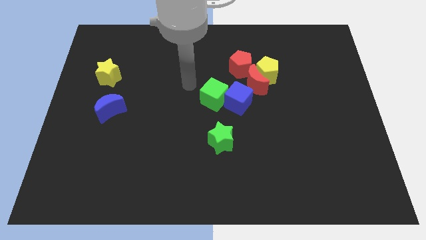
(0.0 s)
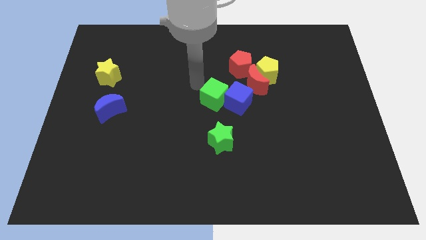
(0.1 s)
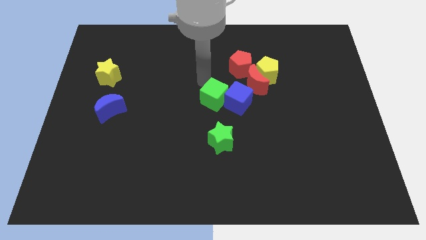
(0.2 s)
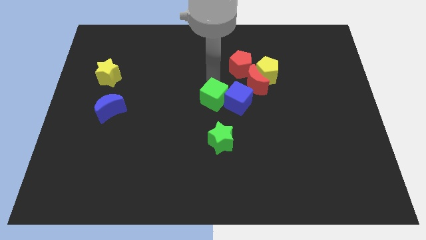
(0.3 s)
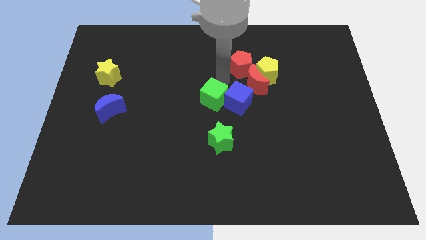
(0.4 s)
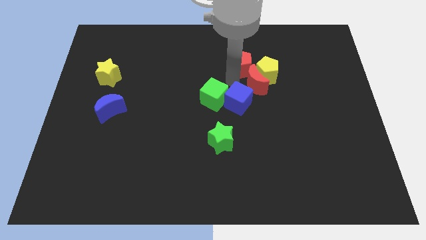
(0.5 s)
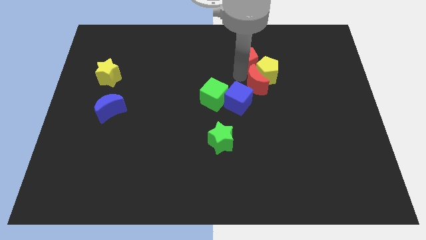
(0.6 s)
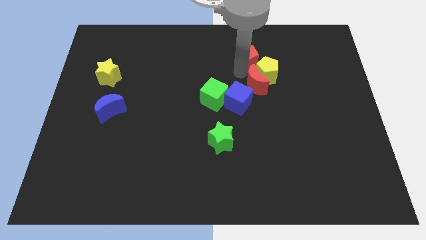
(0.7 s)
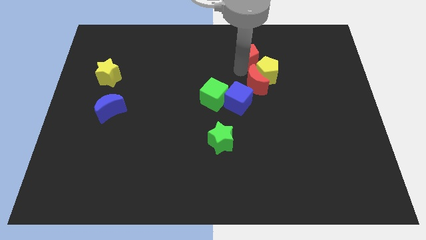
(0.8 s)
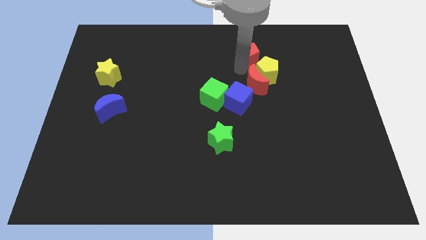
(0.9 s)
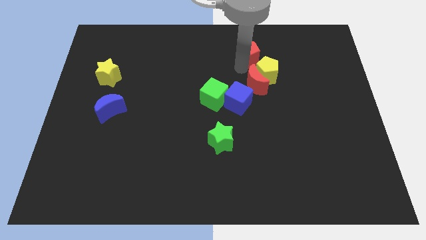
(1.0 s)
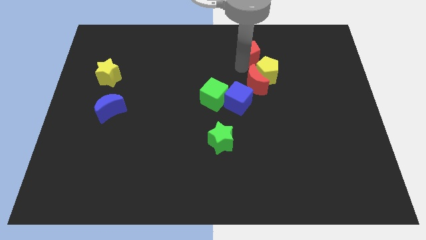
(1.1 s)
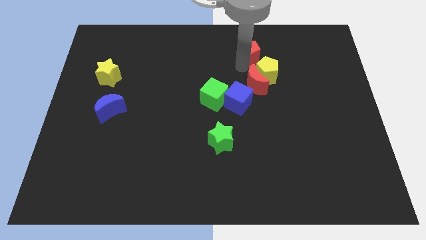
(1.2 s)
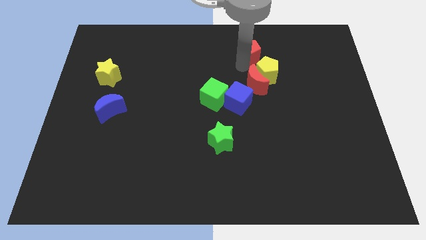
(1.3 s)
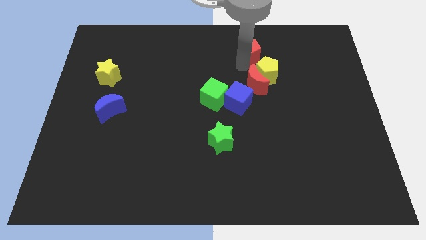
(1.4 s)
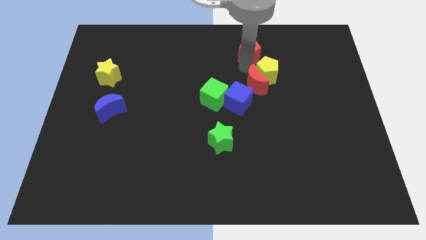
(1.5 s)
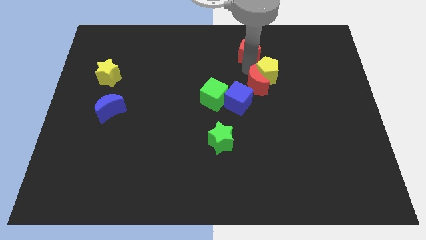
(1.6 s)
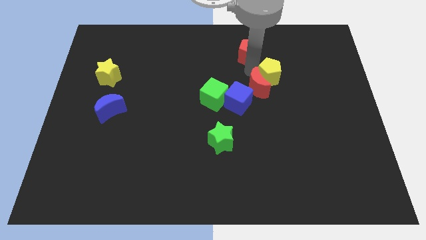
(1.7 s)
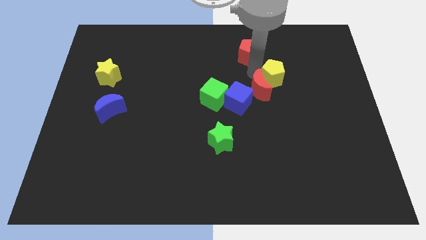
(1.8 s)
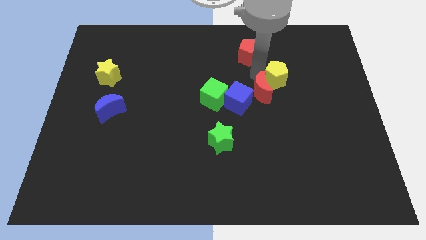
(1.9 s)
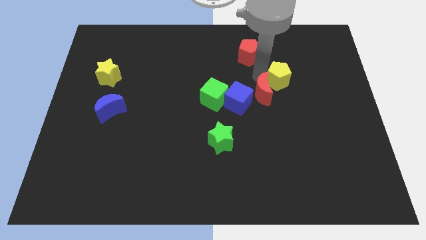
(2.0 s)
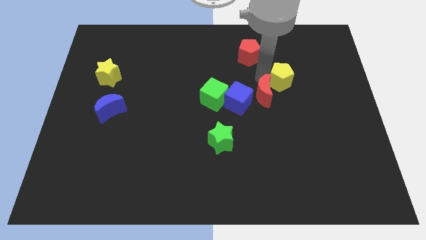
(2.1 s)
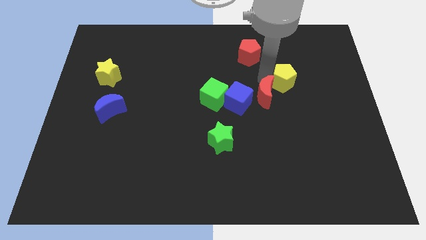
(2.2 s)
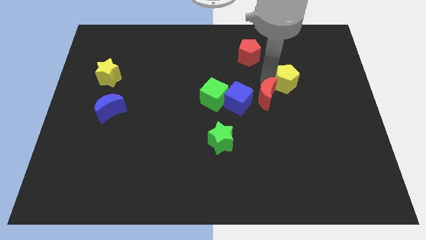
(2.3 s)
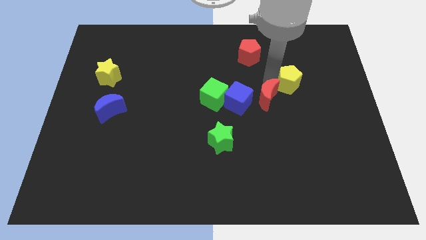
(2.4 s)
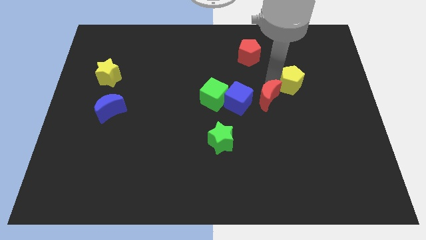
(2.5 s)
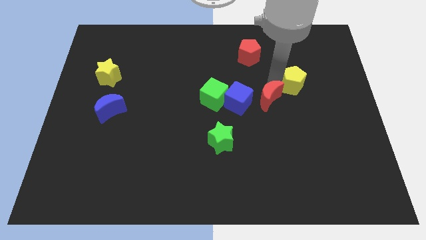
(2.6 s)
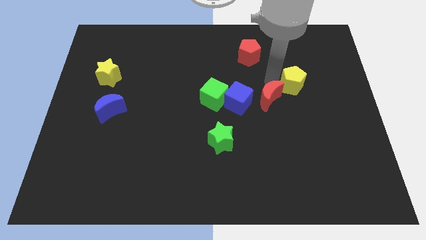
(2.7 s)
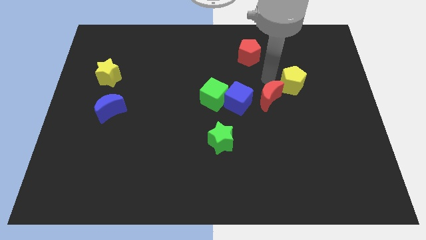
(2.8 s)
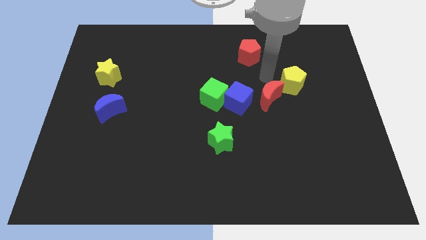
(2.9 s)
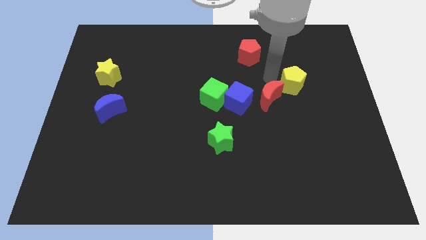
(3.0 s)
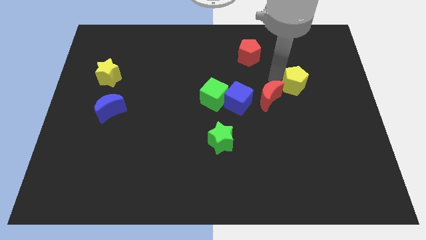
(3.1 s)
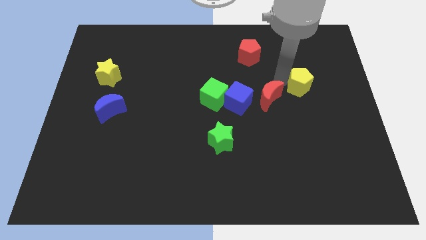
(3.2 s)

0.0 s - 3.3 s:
move the yellow pentagon away from the red moon and red pentagon

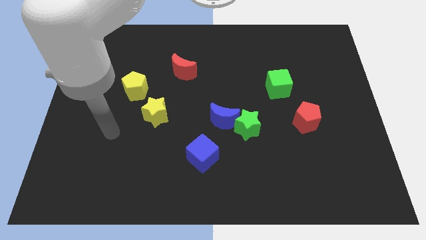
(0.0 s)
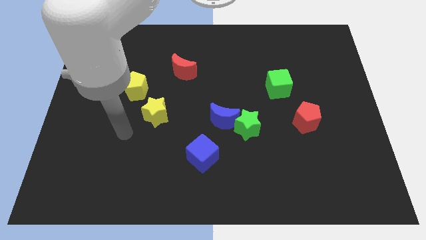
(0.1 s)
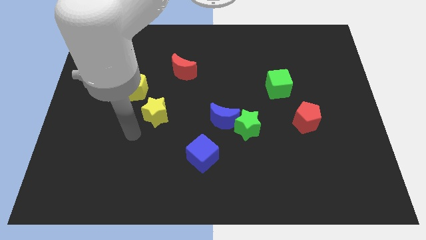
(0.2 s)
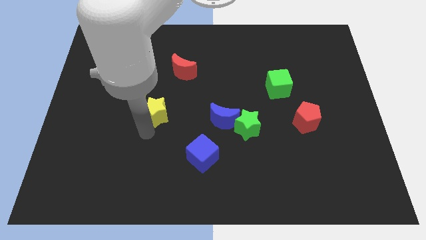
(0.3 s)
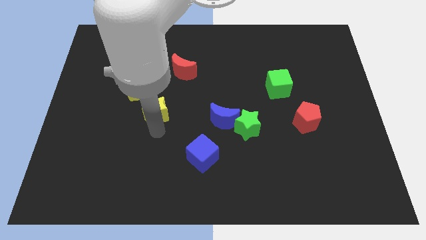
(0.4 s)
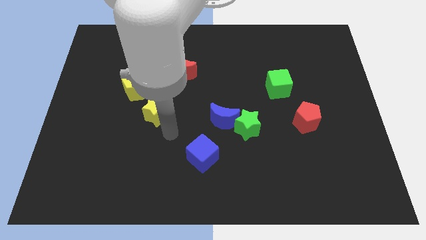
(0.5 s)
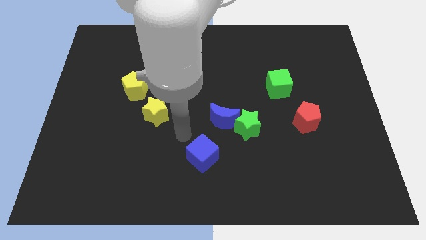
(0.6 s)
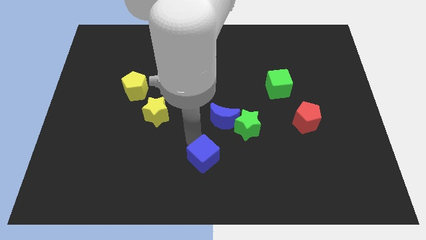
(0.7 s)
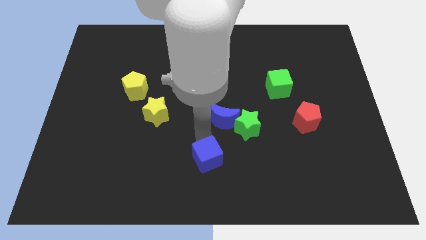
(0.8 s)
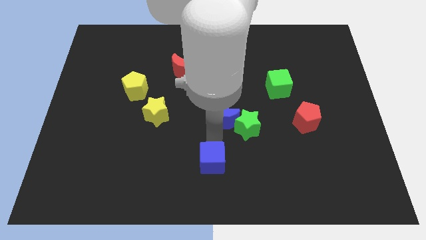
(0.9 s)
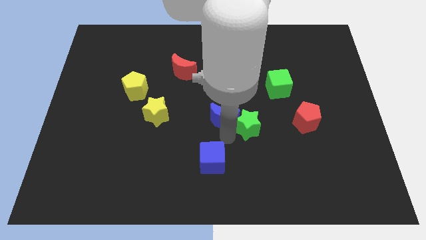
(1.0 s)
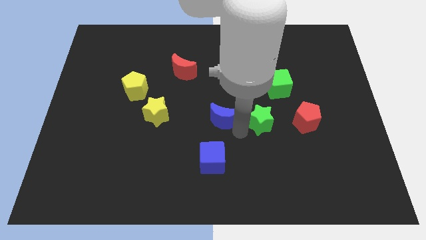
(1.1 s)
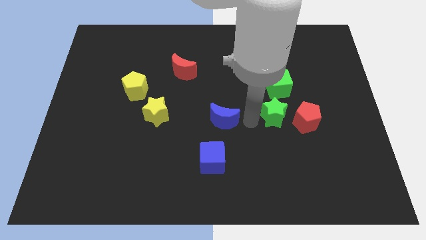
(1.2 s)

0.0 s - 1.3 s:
separate the blue moon from the green star

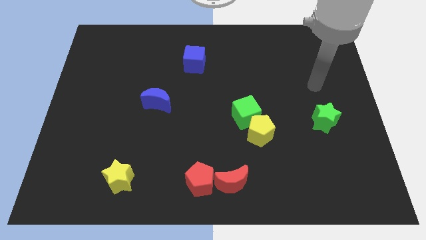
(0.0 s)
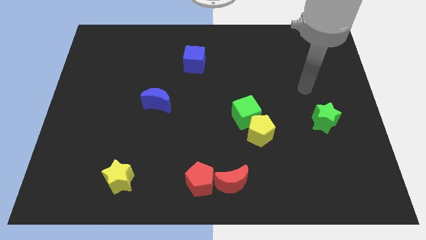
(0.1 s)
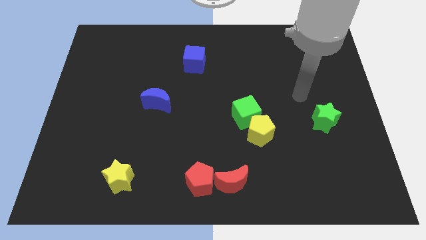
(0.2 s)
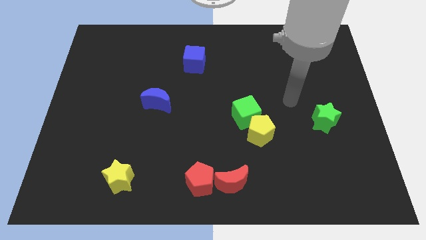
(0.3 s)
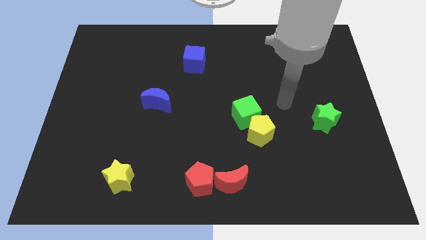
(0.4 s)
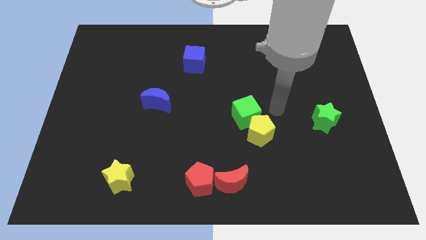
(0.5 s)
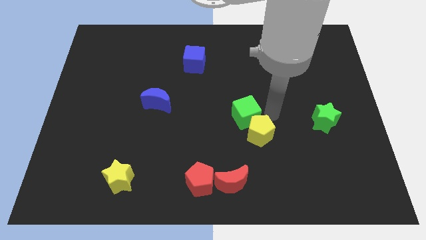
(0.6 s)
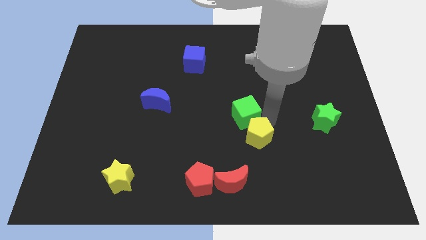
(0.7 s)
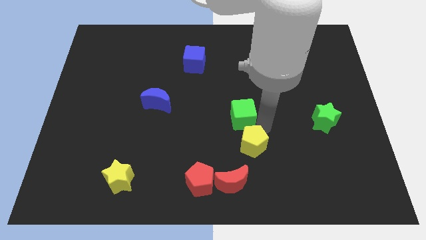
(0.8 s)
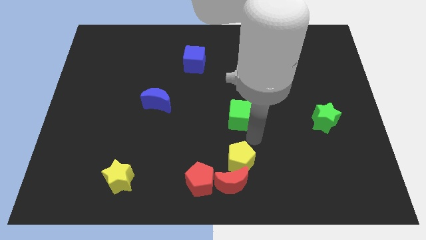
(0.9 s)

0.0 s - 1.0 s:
separate the green cube from the yellow pentagon

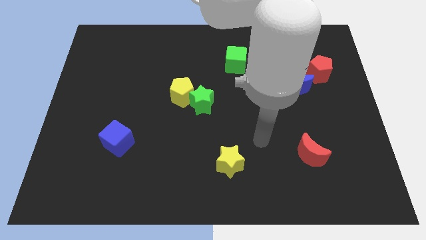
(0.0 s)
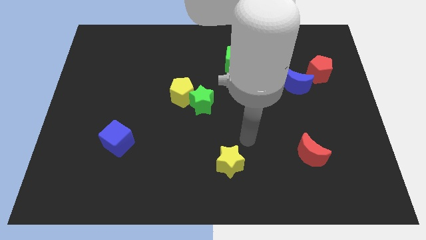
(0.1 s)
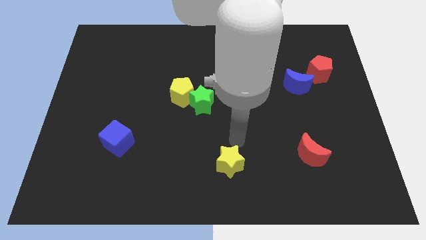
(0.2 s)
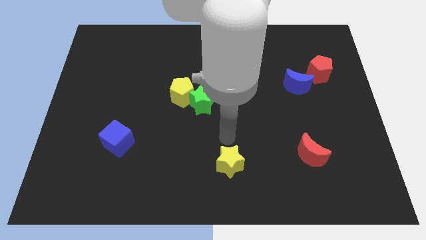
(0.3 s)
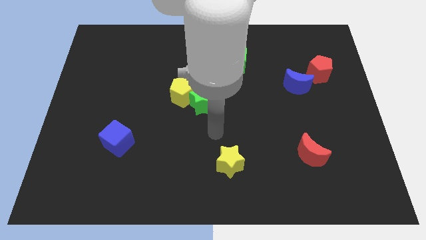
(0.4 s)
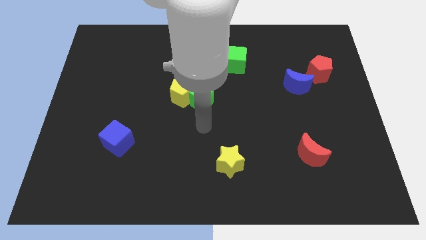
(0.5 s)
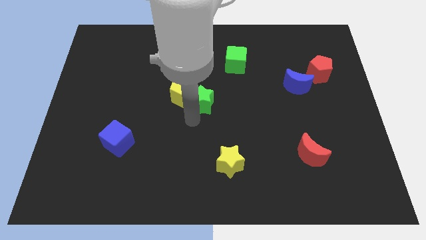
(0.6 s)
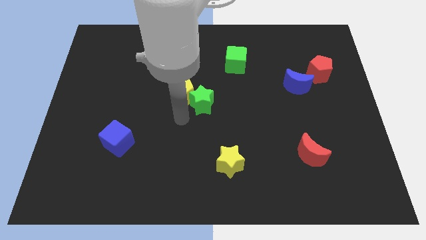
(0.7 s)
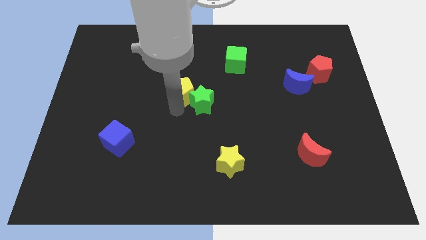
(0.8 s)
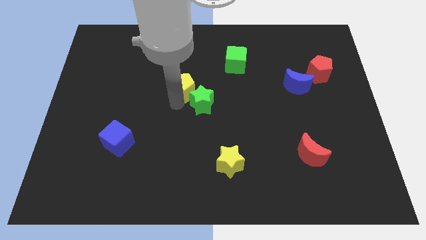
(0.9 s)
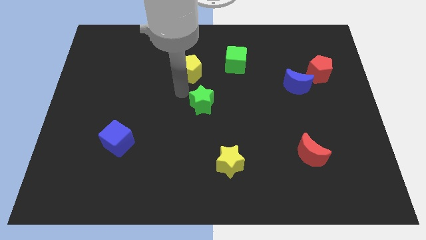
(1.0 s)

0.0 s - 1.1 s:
separate the green star from the yellow pentagon

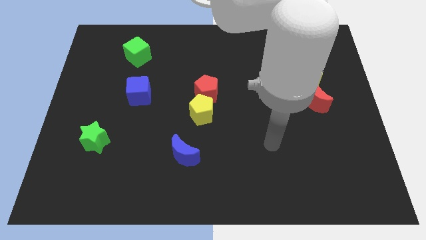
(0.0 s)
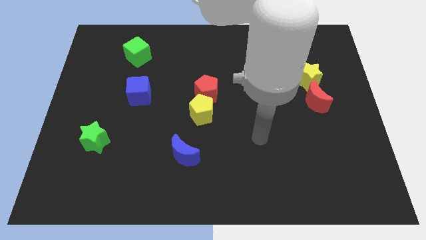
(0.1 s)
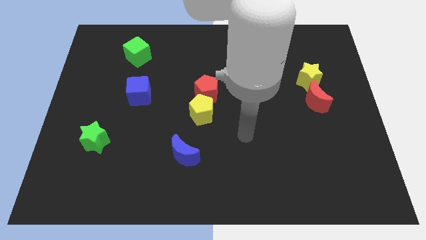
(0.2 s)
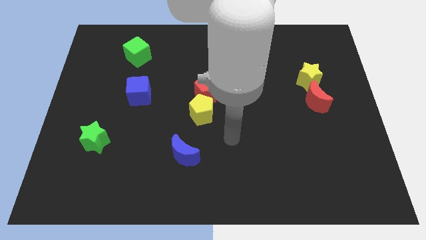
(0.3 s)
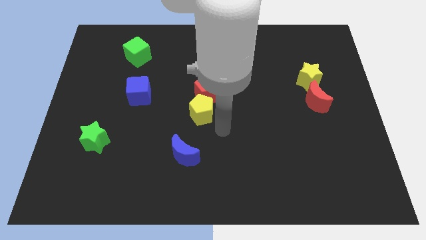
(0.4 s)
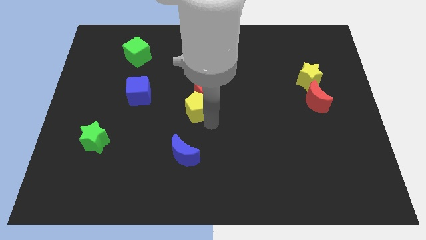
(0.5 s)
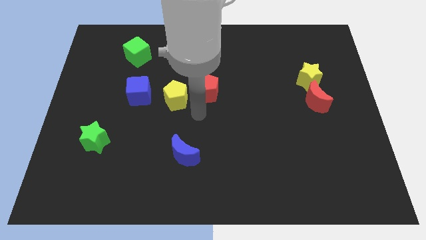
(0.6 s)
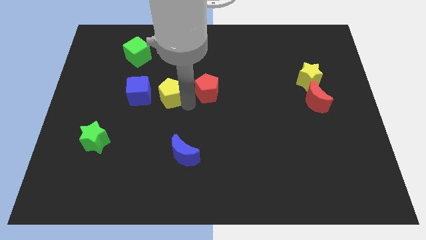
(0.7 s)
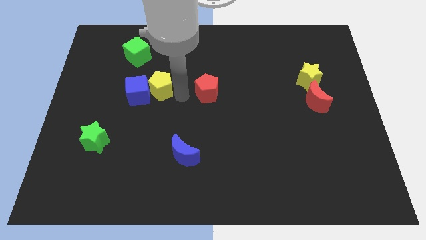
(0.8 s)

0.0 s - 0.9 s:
move the red pentagon away from the yellow pentagon

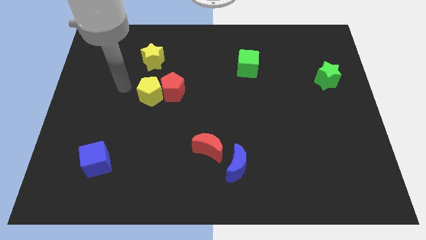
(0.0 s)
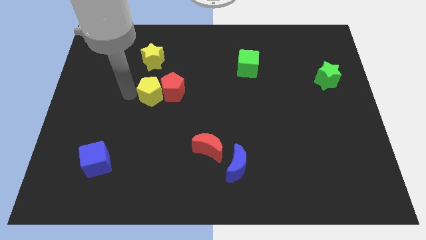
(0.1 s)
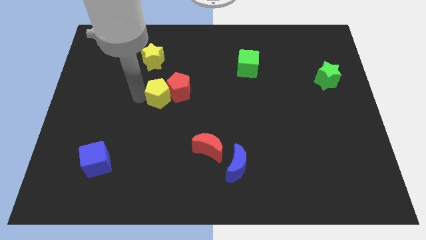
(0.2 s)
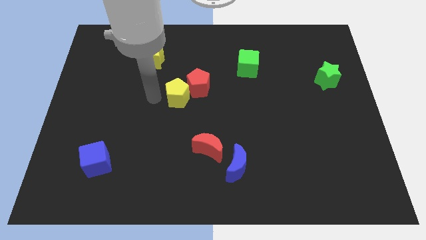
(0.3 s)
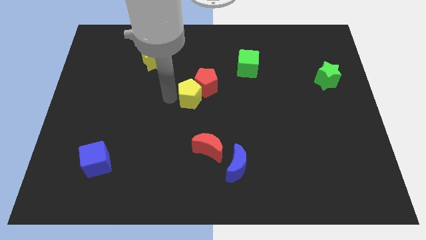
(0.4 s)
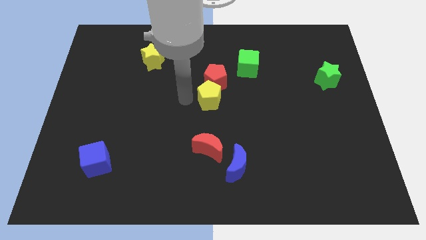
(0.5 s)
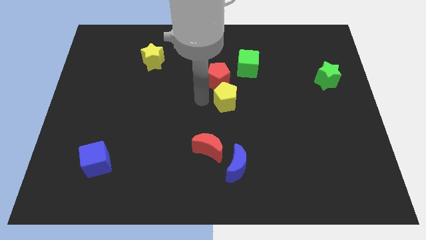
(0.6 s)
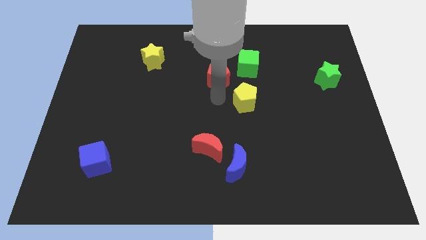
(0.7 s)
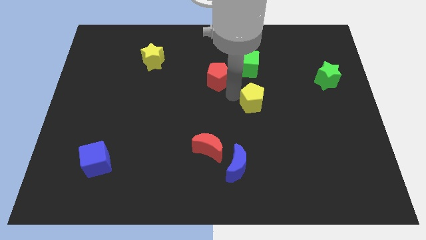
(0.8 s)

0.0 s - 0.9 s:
separate the red pentagon from the yellow pentagon

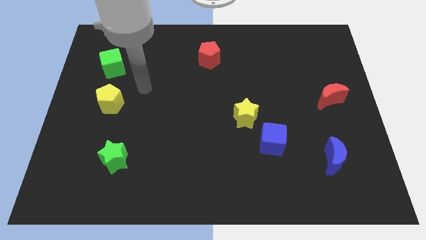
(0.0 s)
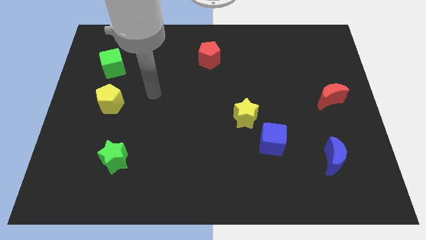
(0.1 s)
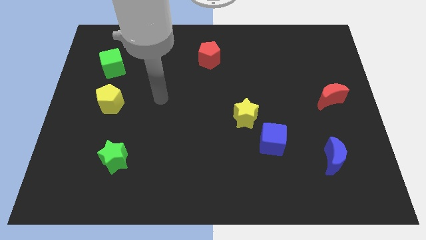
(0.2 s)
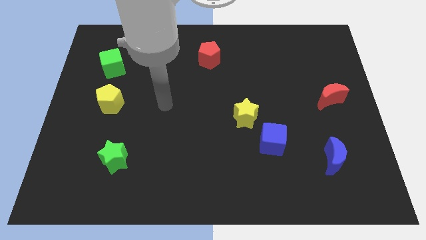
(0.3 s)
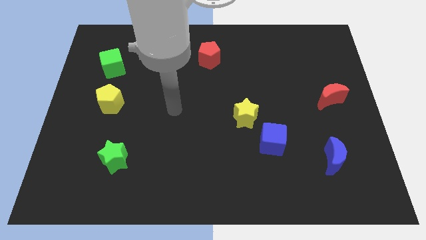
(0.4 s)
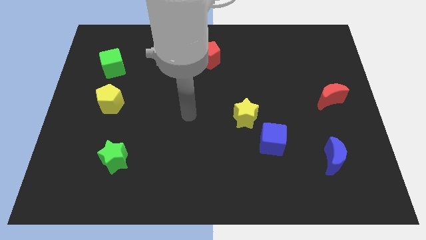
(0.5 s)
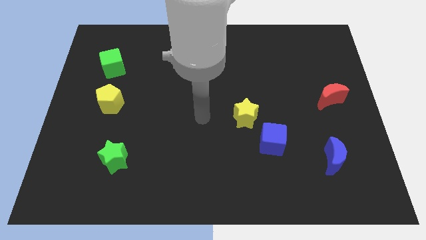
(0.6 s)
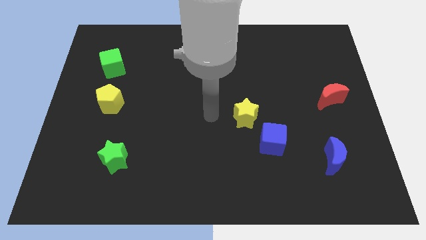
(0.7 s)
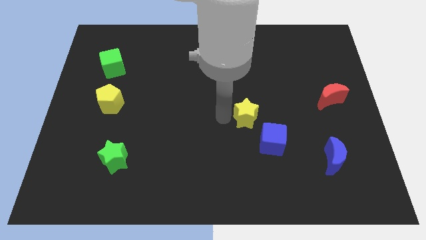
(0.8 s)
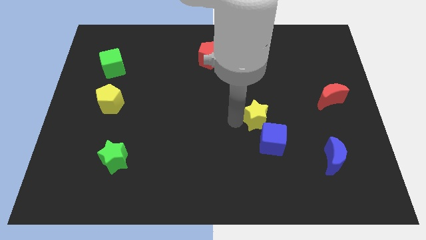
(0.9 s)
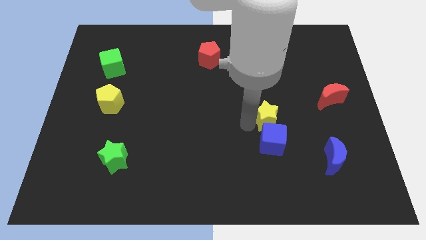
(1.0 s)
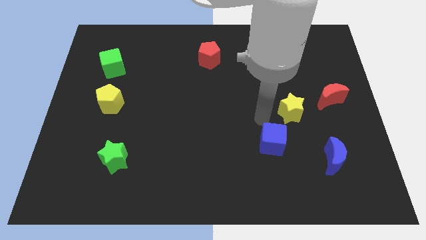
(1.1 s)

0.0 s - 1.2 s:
move the blue cube away from the yellow star
